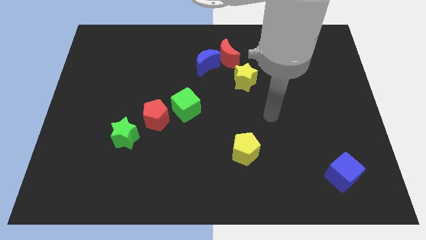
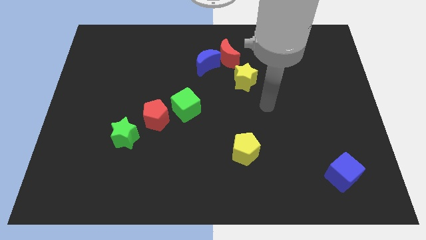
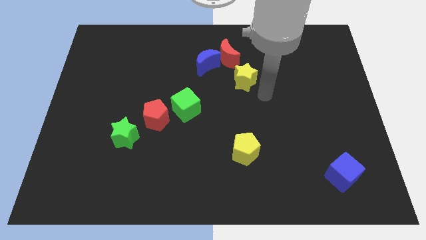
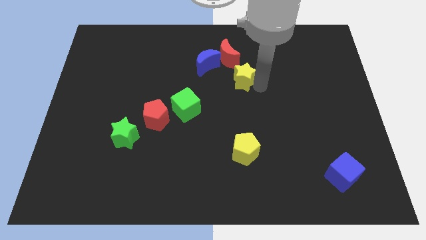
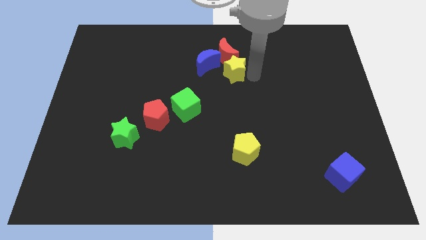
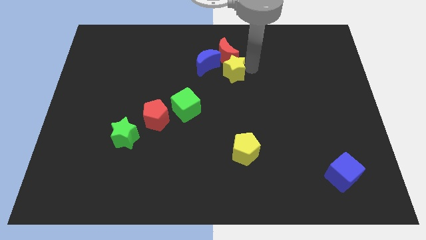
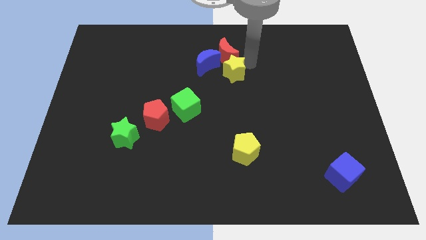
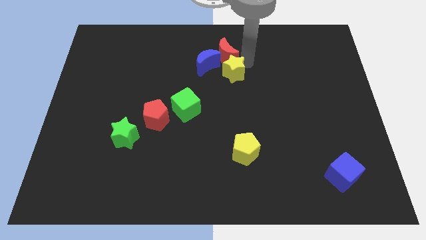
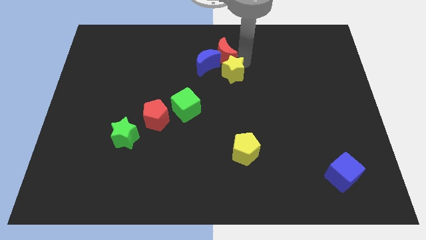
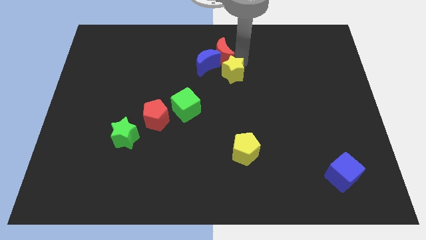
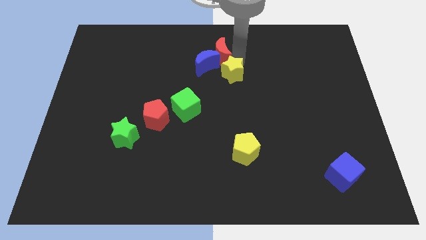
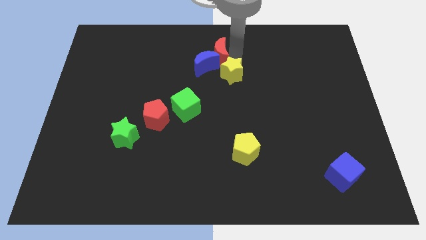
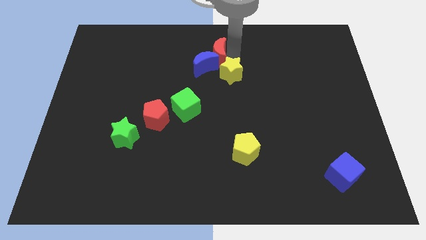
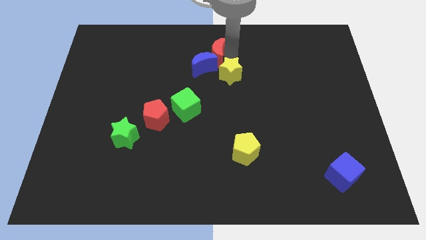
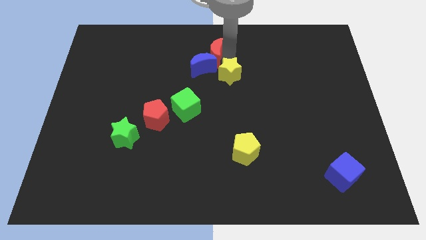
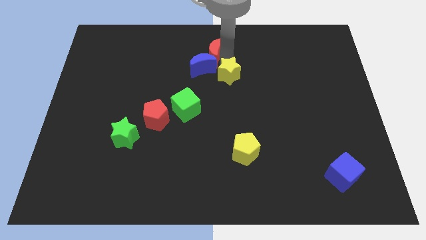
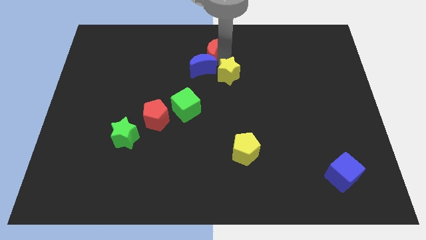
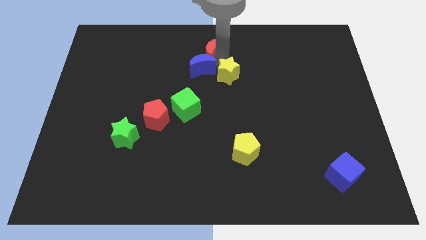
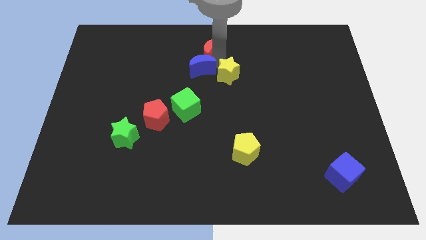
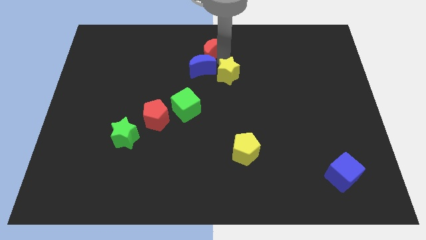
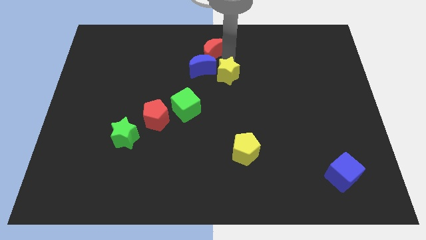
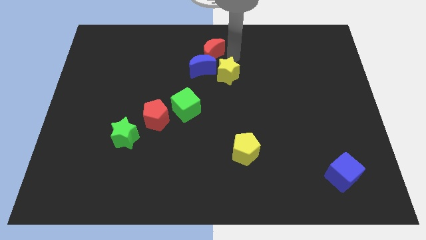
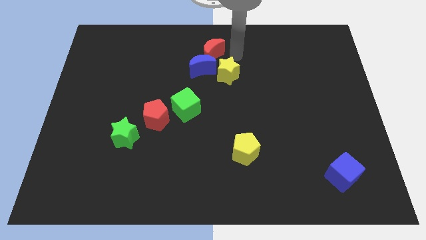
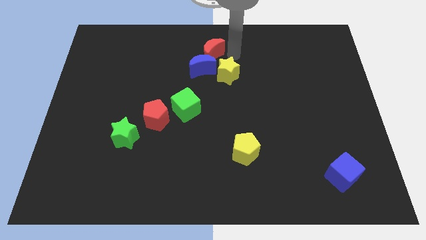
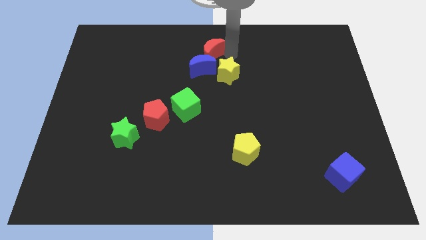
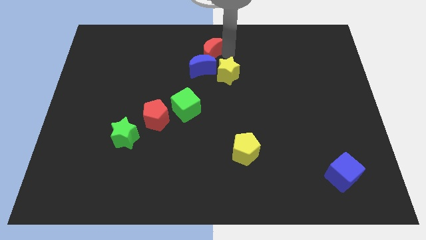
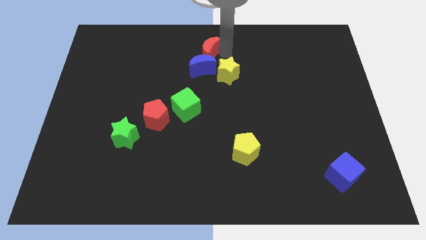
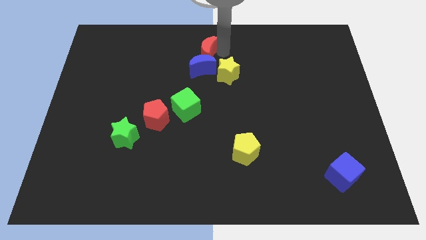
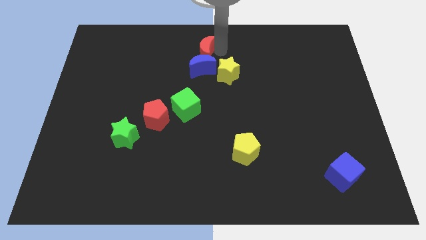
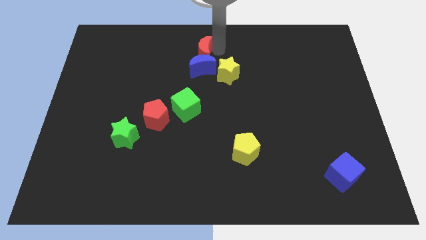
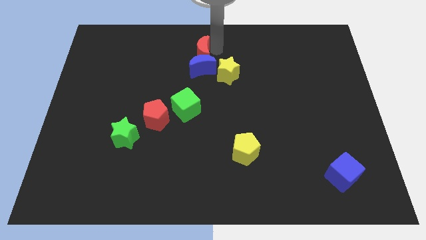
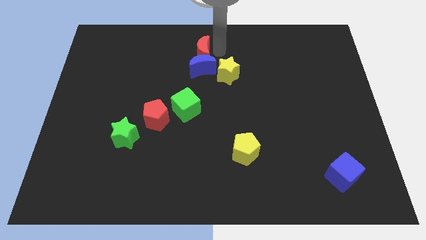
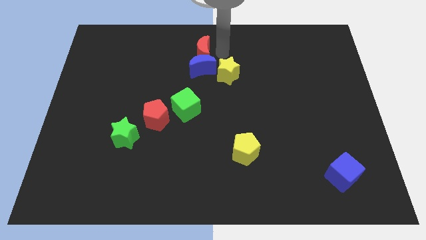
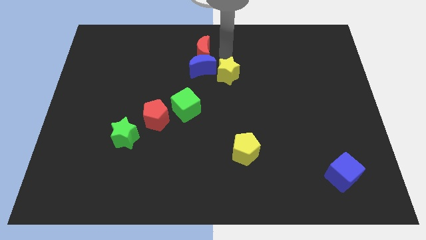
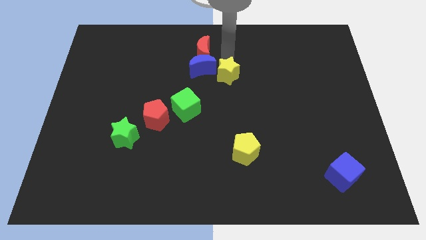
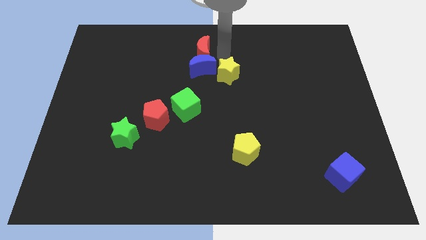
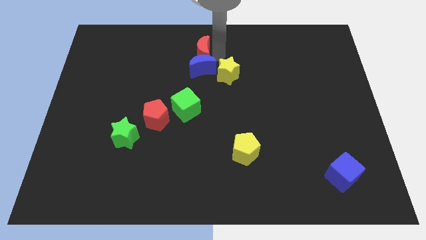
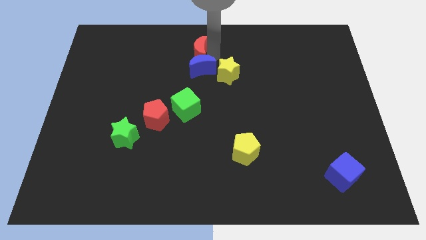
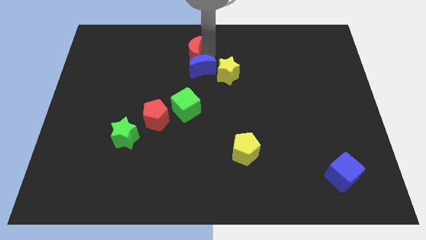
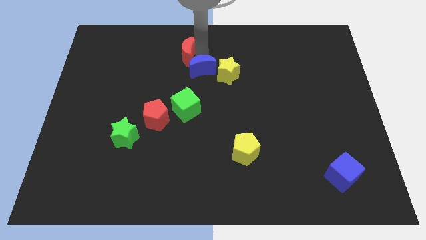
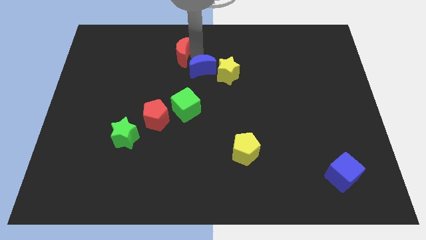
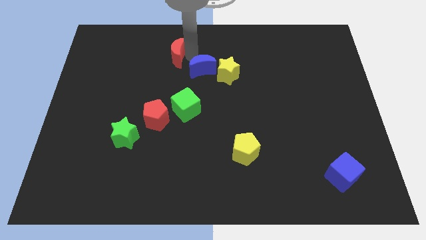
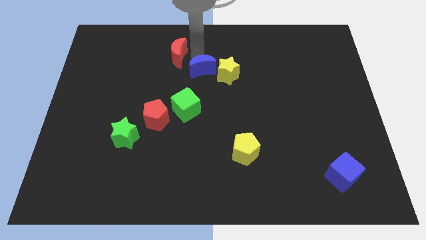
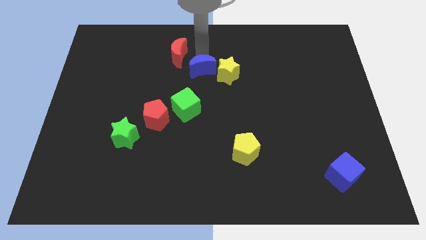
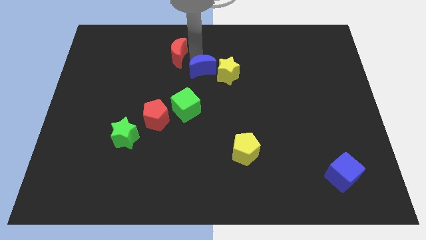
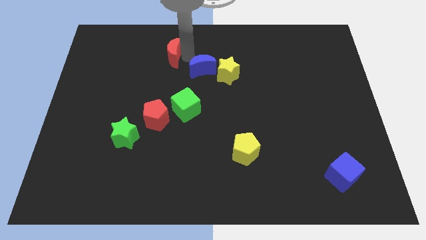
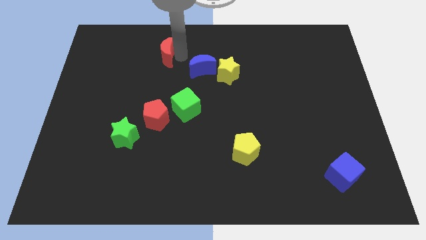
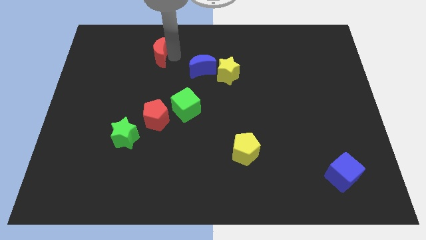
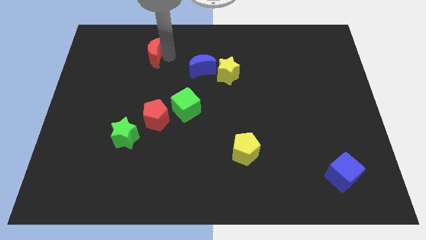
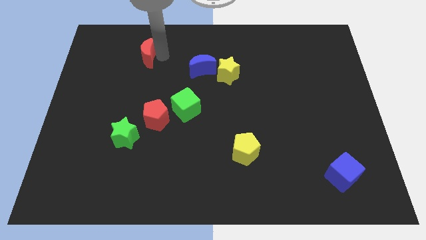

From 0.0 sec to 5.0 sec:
push the red moon to the left

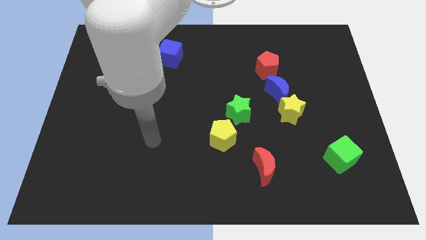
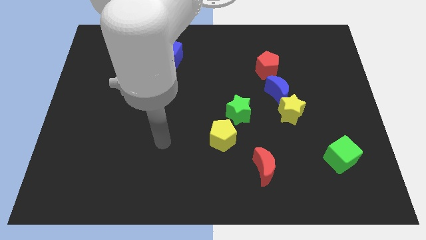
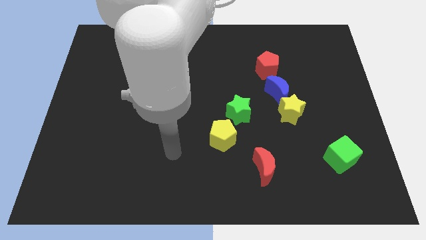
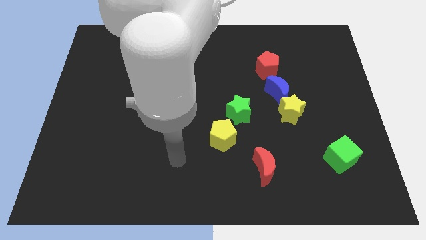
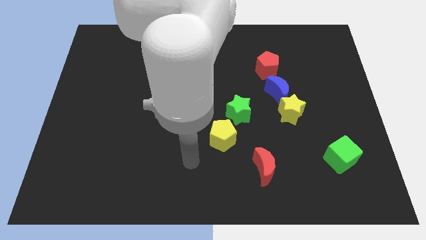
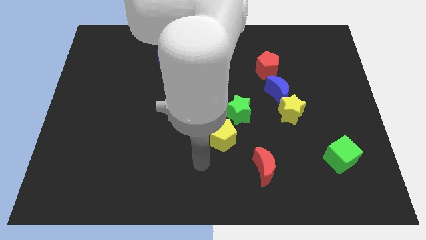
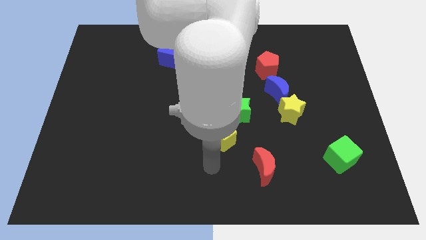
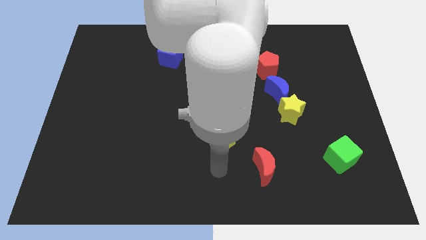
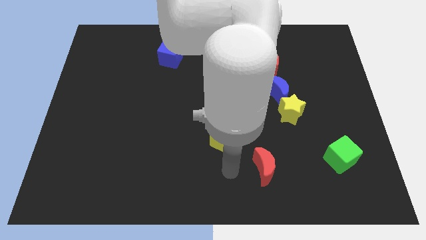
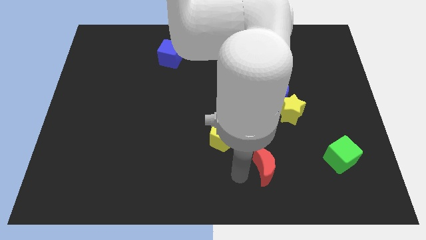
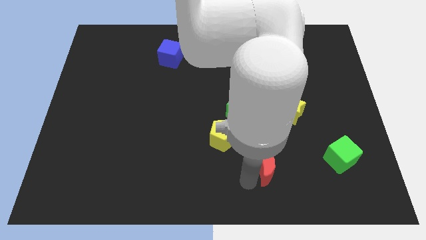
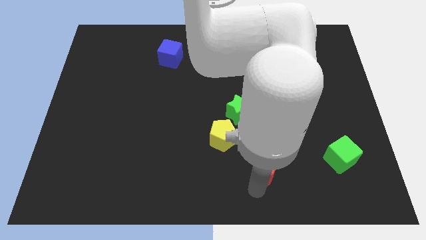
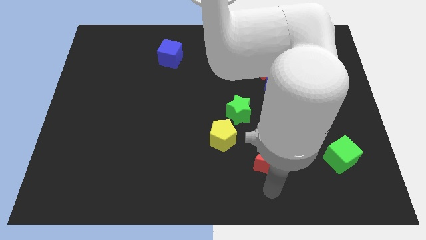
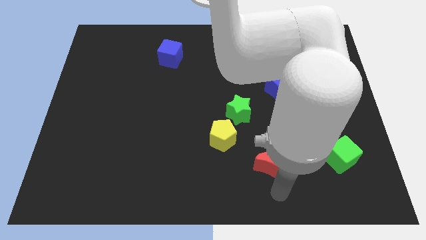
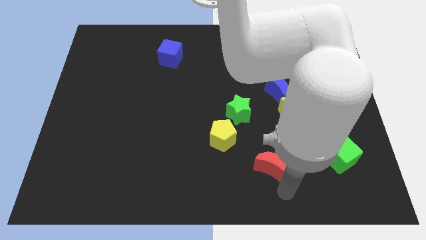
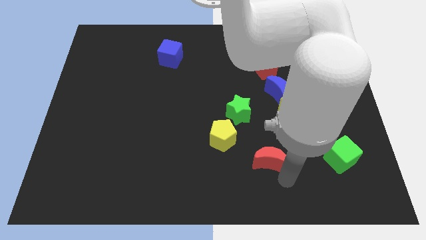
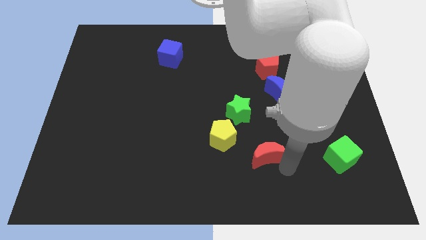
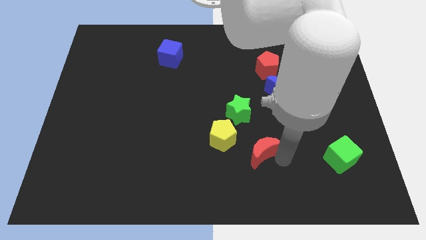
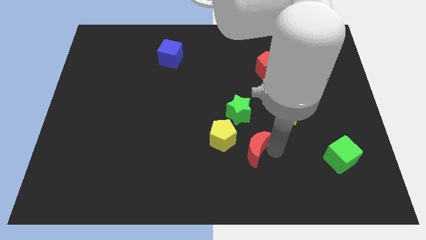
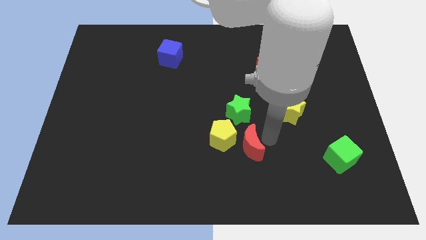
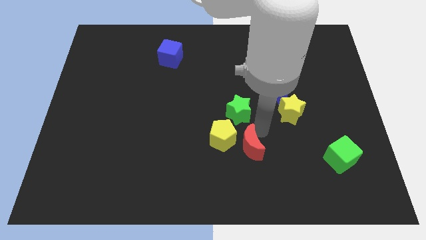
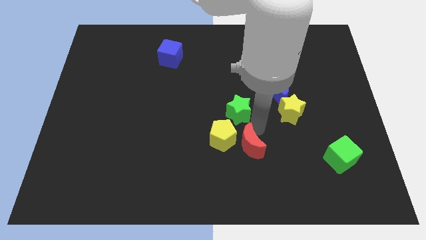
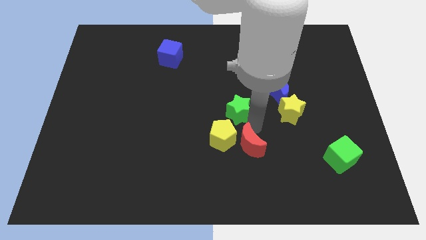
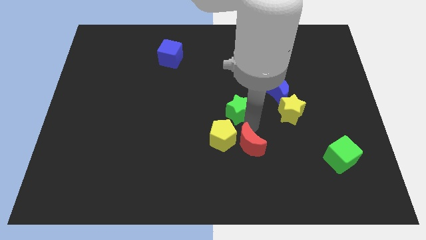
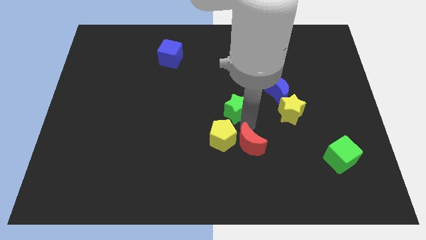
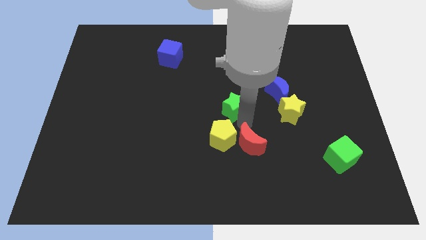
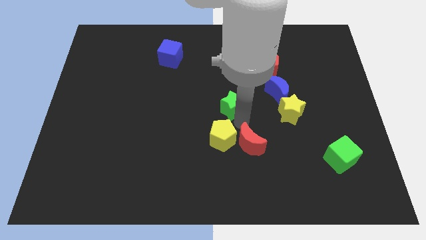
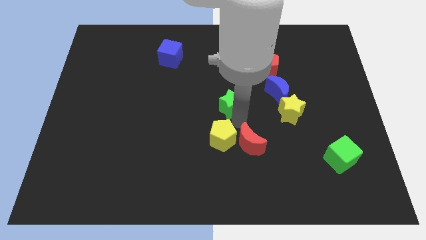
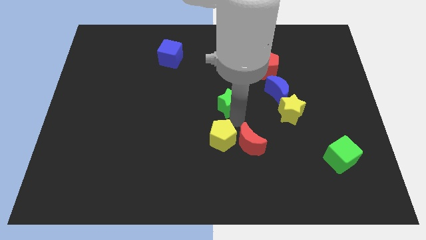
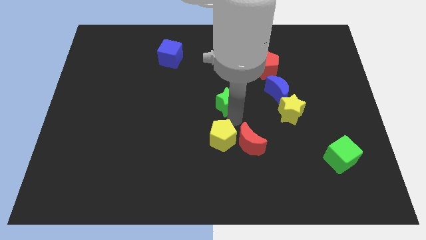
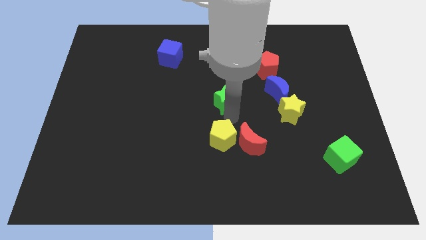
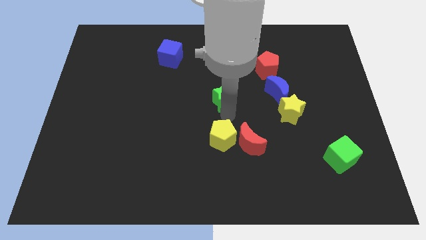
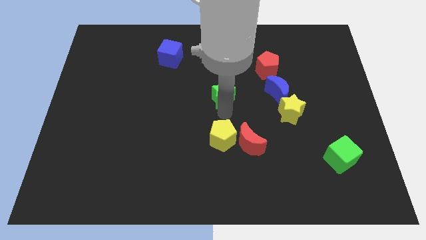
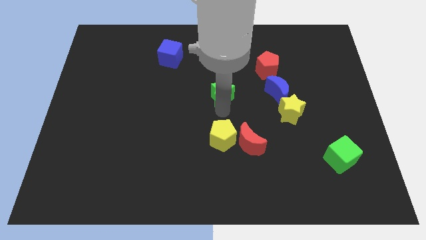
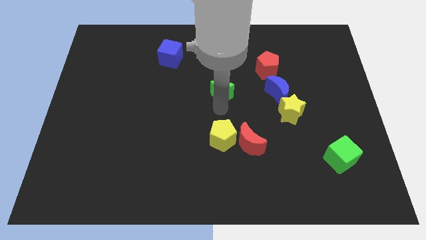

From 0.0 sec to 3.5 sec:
move the green star diagonally upwards and to the left a little
